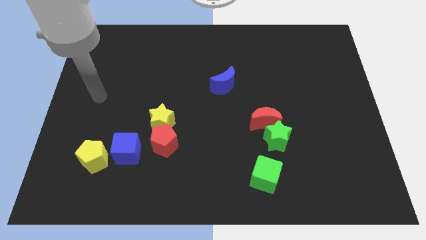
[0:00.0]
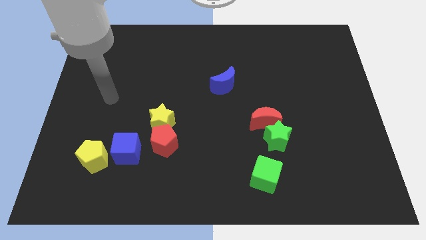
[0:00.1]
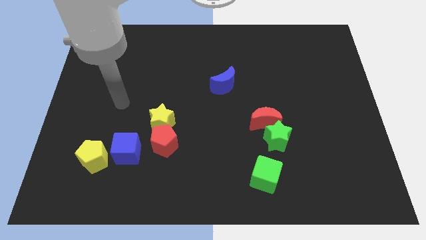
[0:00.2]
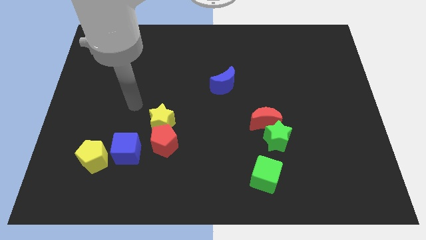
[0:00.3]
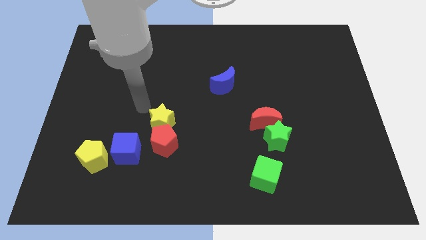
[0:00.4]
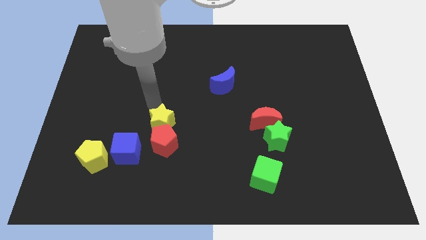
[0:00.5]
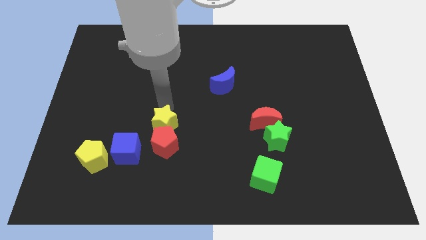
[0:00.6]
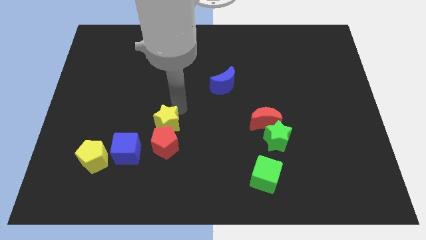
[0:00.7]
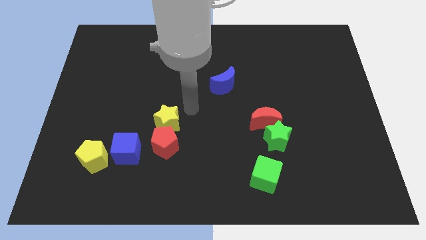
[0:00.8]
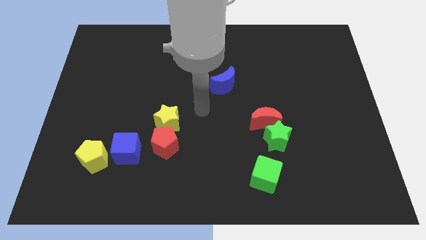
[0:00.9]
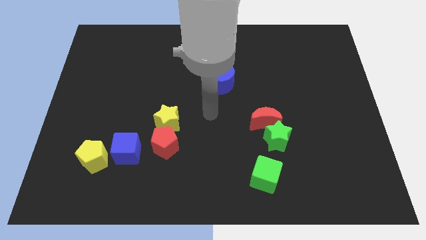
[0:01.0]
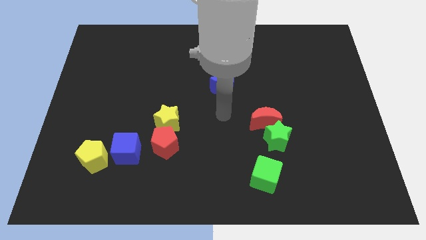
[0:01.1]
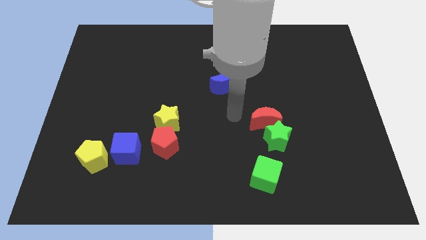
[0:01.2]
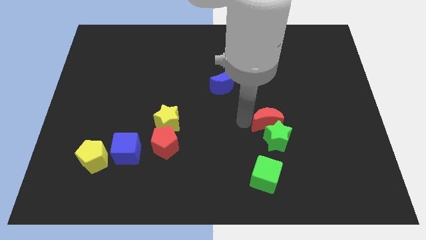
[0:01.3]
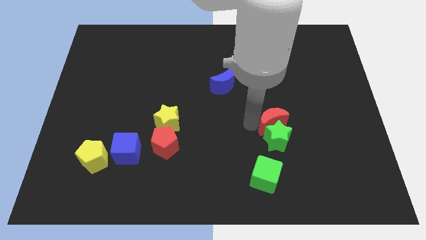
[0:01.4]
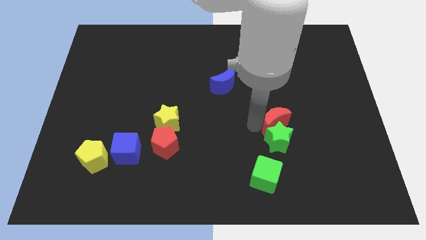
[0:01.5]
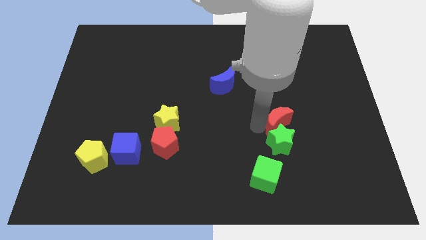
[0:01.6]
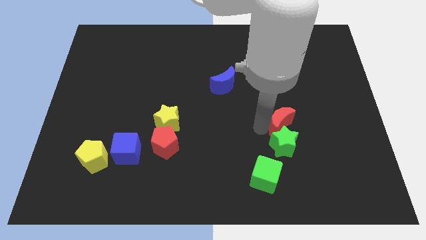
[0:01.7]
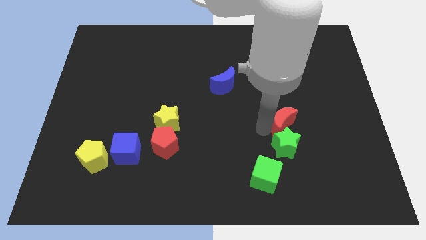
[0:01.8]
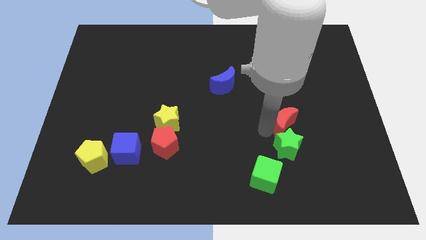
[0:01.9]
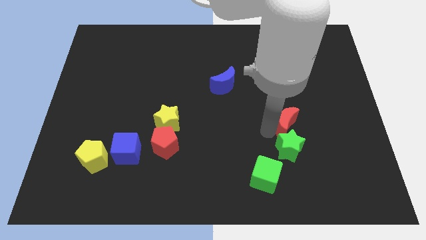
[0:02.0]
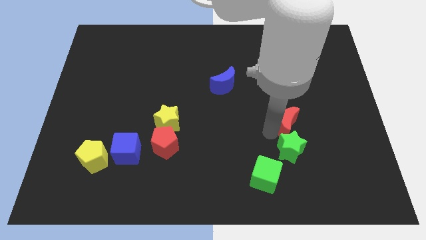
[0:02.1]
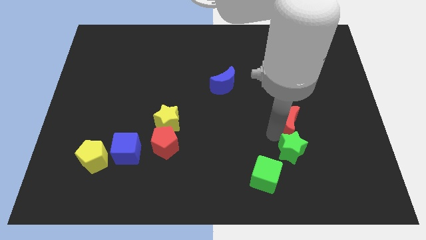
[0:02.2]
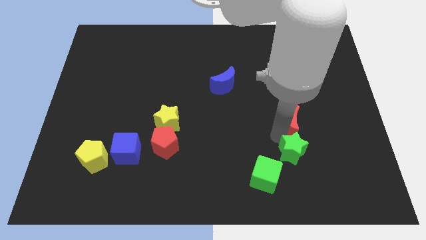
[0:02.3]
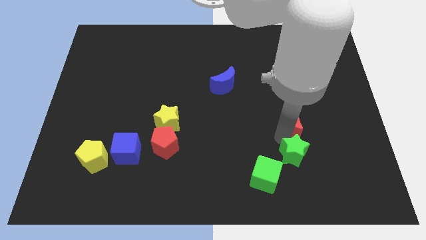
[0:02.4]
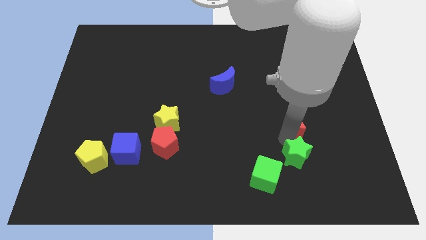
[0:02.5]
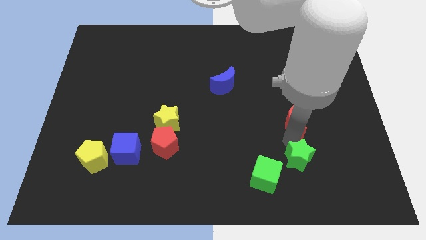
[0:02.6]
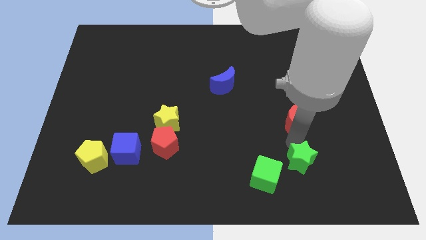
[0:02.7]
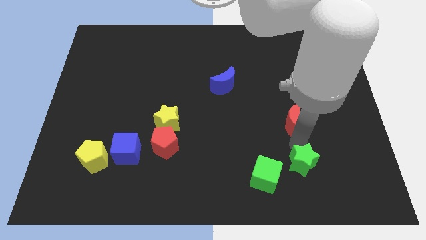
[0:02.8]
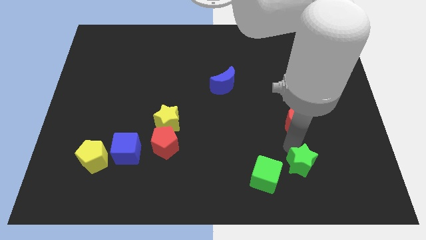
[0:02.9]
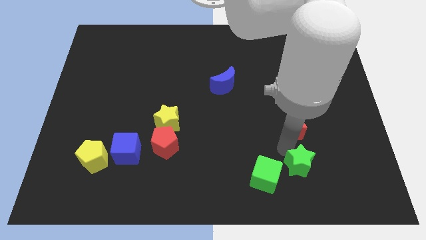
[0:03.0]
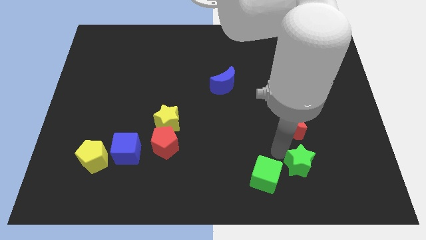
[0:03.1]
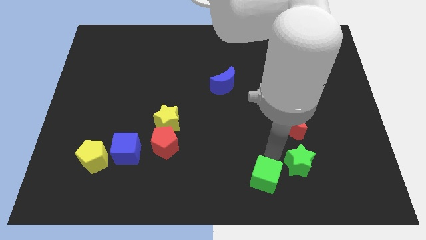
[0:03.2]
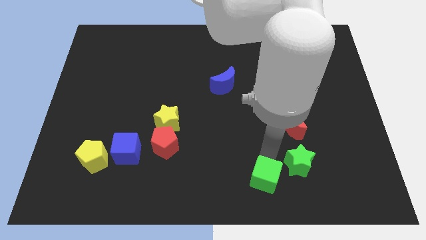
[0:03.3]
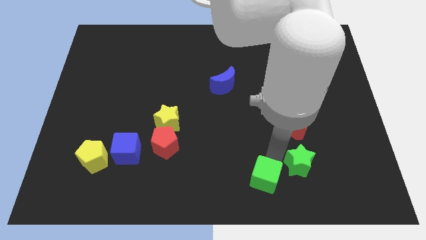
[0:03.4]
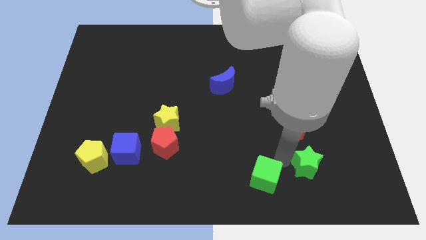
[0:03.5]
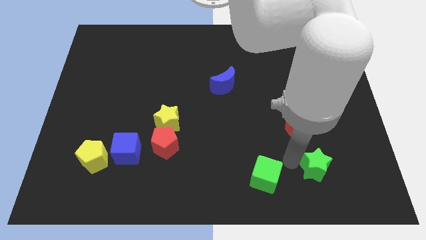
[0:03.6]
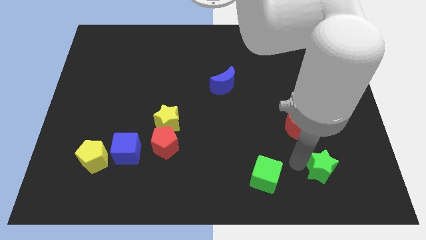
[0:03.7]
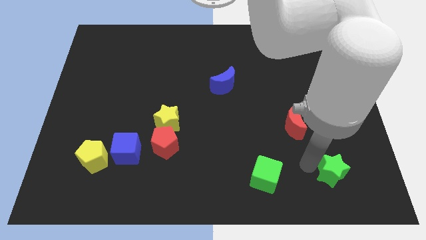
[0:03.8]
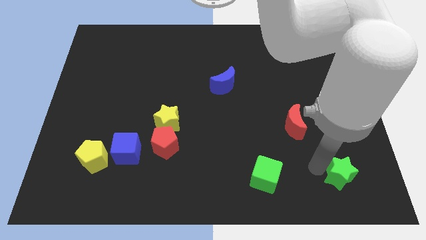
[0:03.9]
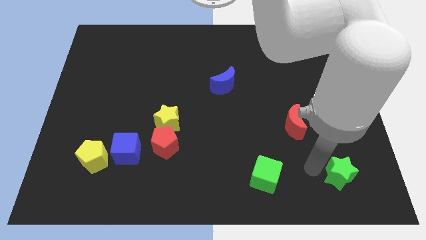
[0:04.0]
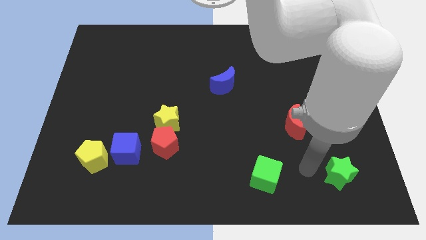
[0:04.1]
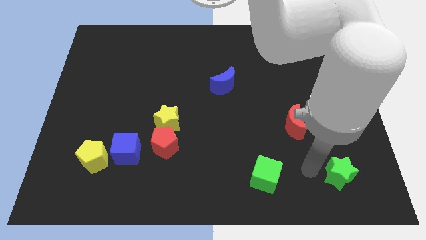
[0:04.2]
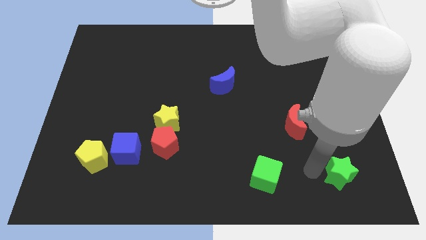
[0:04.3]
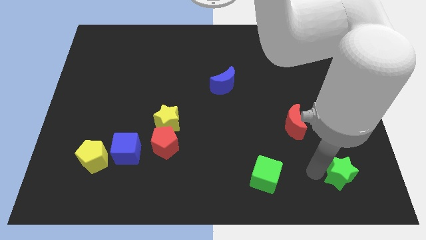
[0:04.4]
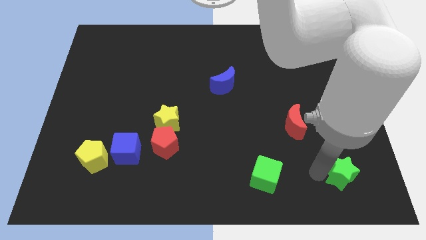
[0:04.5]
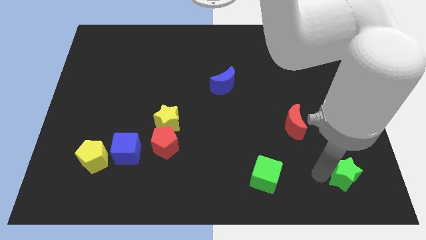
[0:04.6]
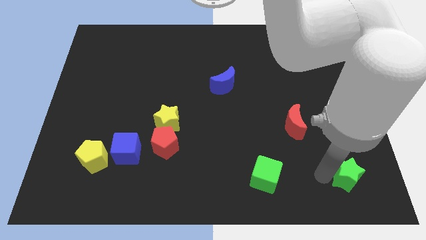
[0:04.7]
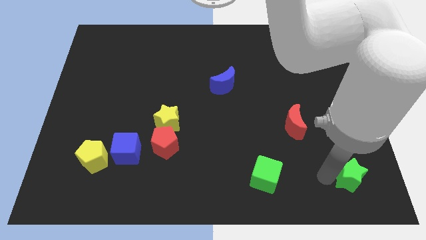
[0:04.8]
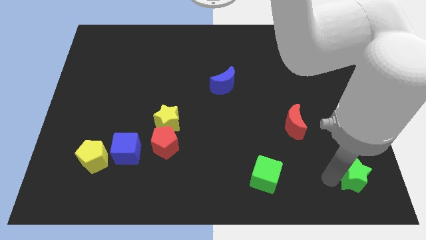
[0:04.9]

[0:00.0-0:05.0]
move the green star to the bottom right corner

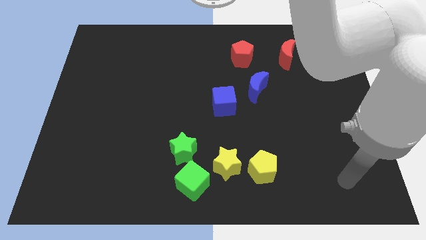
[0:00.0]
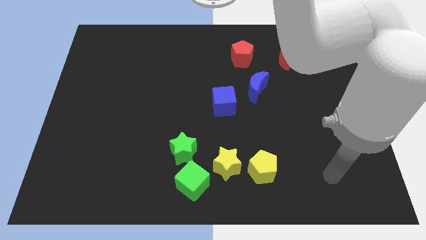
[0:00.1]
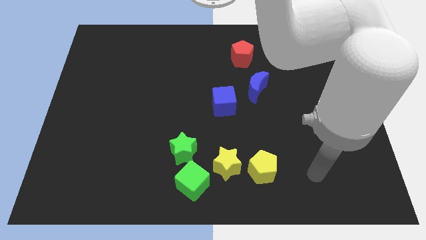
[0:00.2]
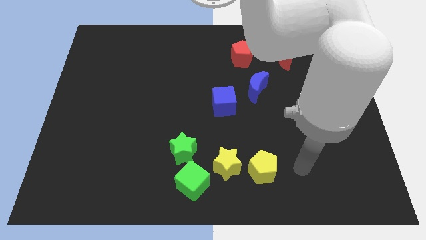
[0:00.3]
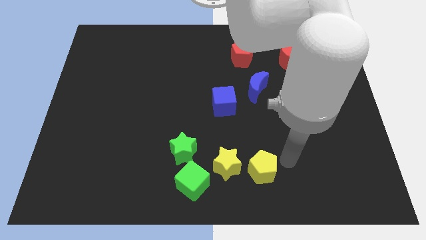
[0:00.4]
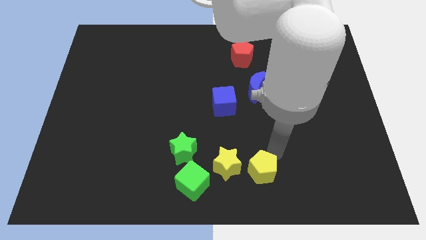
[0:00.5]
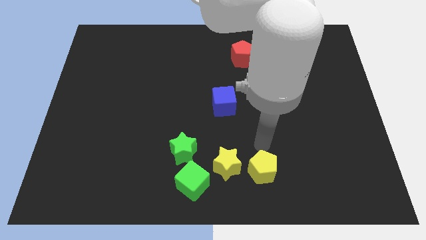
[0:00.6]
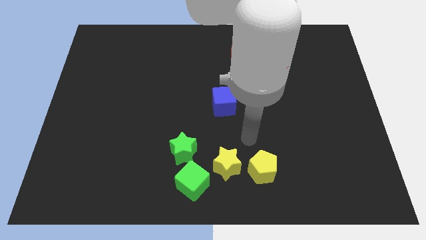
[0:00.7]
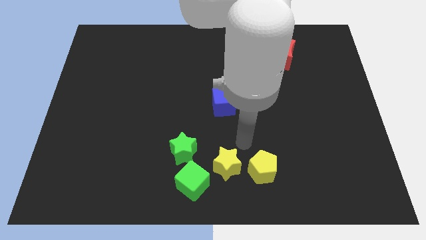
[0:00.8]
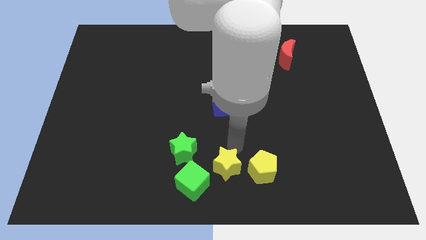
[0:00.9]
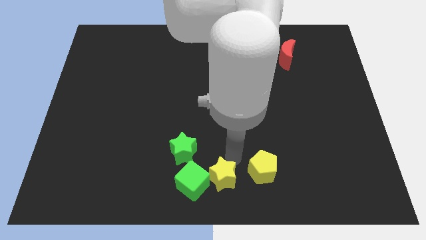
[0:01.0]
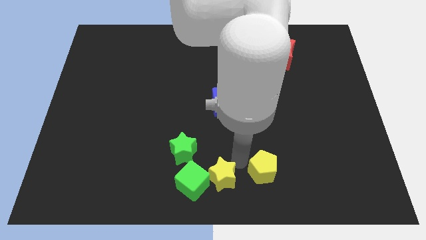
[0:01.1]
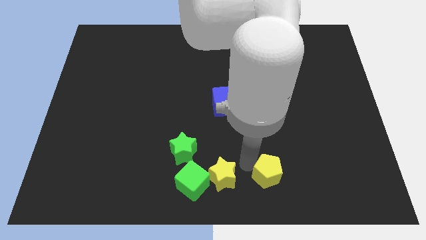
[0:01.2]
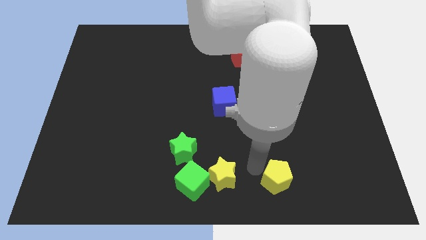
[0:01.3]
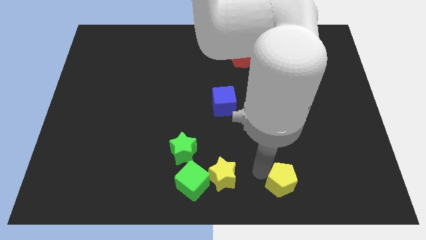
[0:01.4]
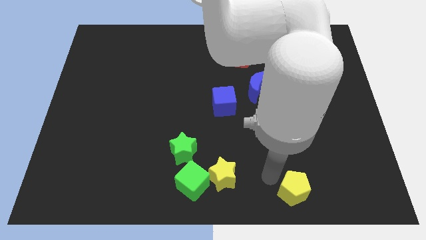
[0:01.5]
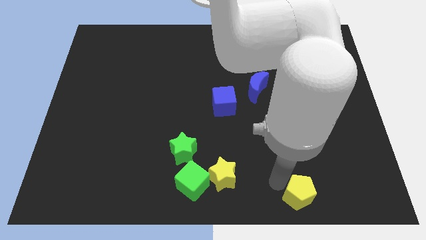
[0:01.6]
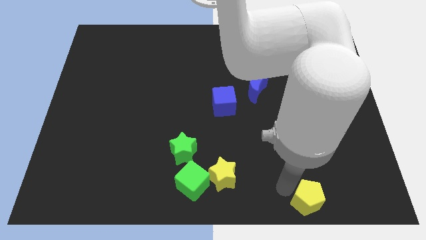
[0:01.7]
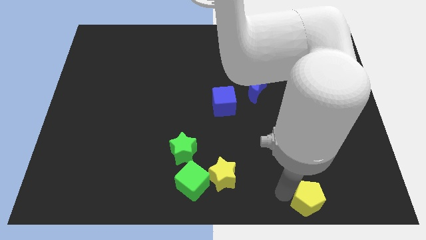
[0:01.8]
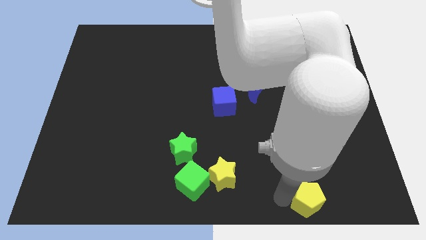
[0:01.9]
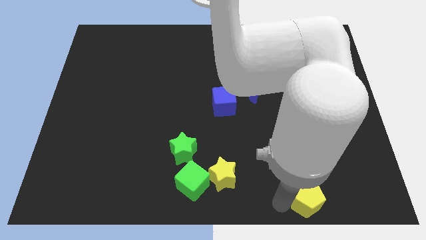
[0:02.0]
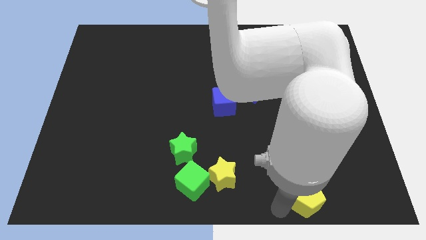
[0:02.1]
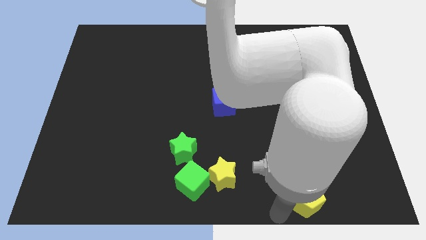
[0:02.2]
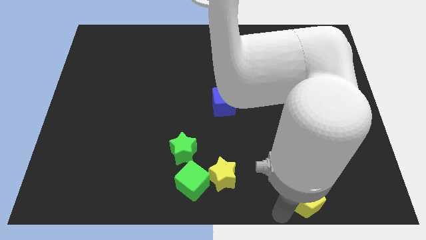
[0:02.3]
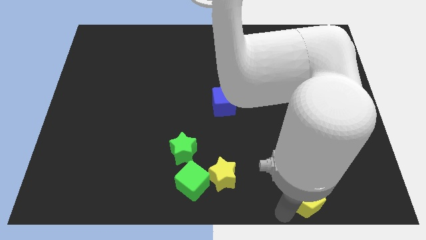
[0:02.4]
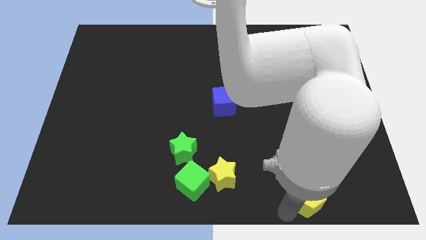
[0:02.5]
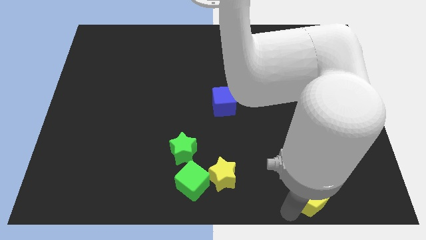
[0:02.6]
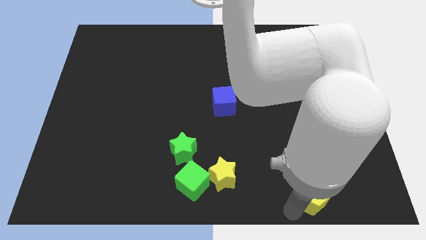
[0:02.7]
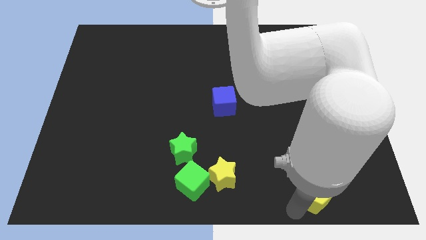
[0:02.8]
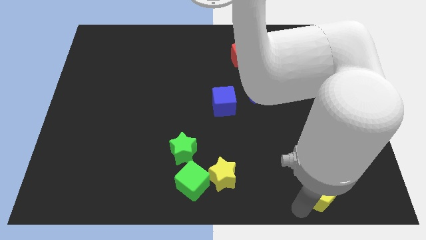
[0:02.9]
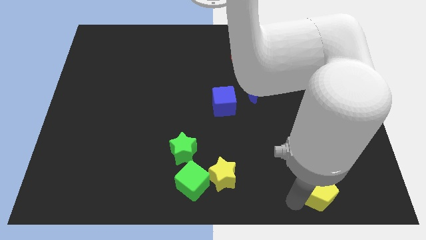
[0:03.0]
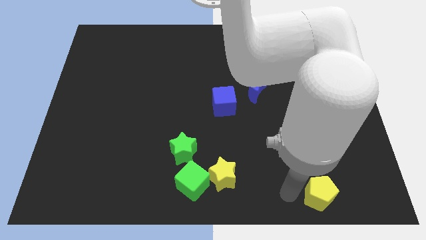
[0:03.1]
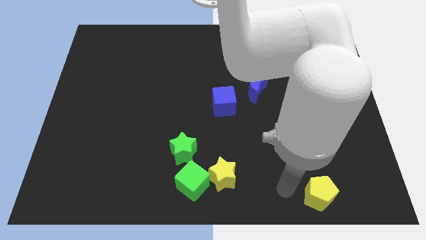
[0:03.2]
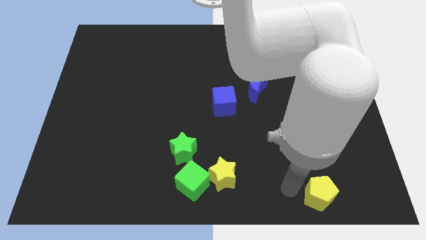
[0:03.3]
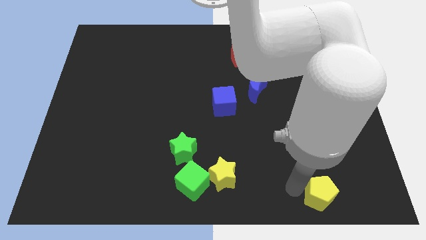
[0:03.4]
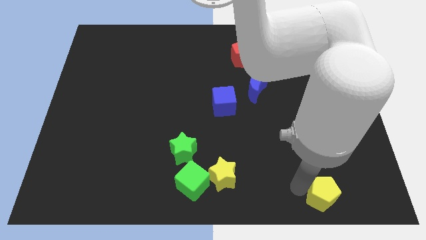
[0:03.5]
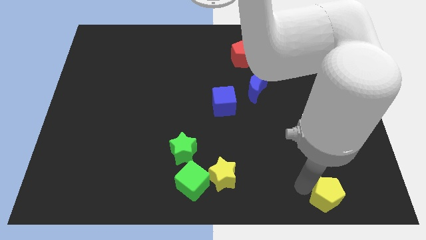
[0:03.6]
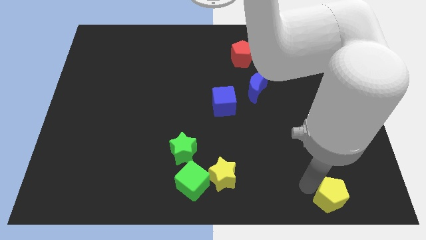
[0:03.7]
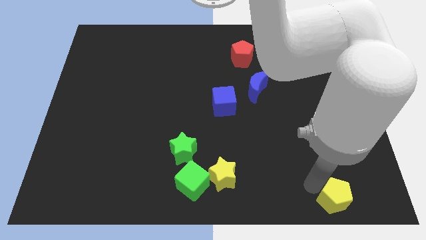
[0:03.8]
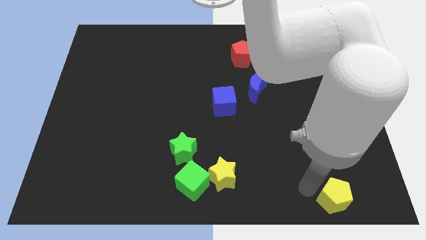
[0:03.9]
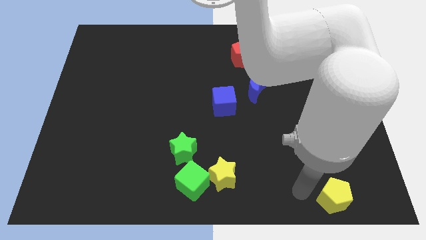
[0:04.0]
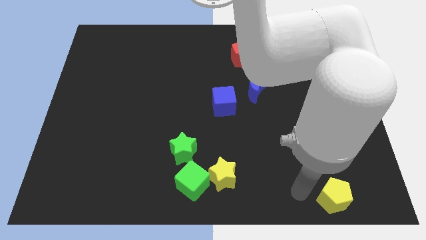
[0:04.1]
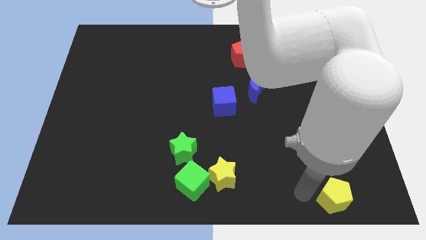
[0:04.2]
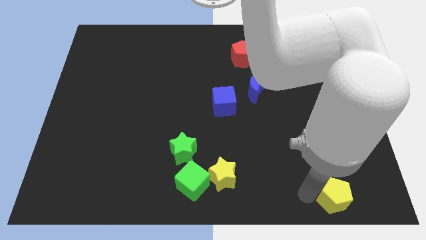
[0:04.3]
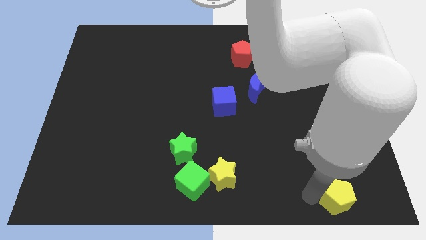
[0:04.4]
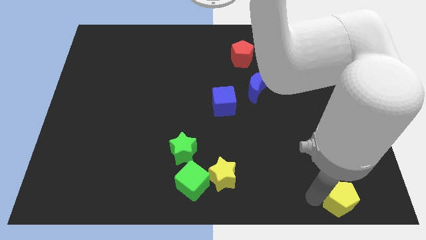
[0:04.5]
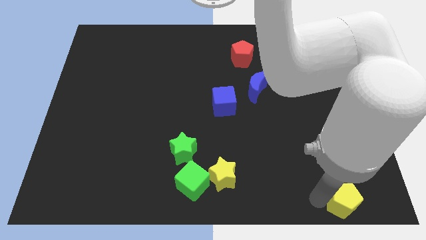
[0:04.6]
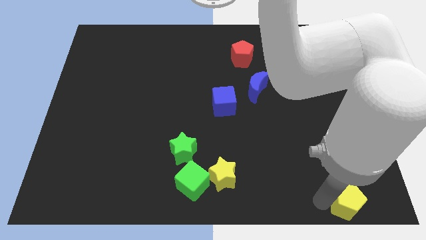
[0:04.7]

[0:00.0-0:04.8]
move the yellow pentagon to the bottom right of the board
